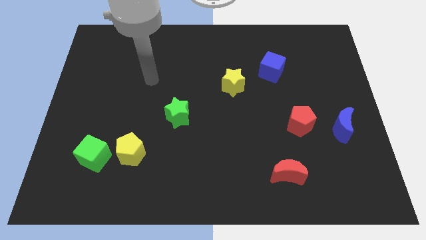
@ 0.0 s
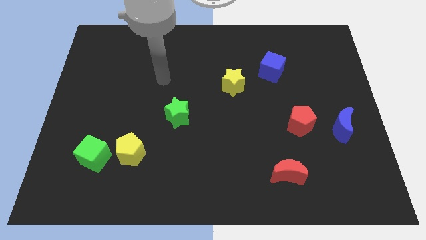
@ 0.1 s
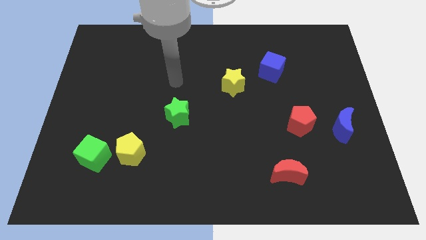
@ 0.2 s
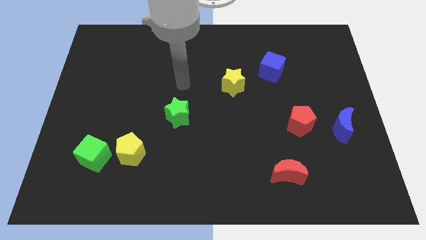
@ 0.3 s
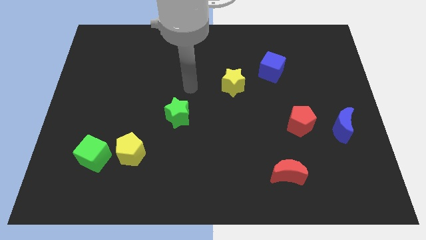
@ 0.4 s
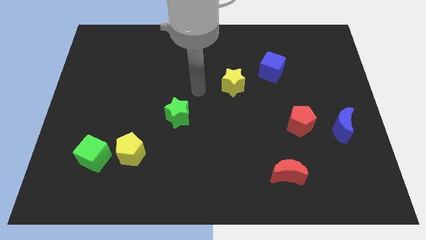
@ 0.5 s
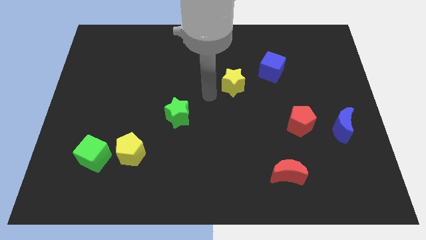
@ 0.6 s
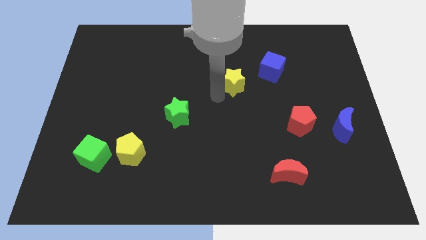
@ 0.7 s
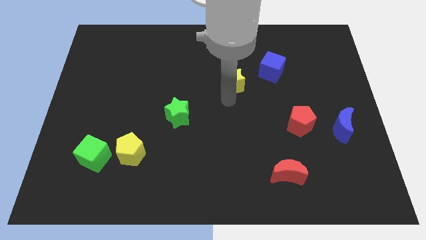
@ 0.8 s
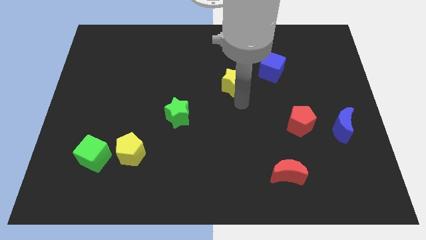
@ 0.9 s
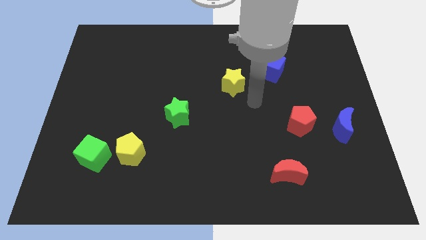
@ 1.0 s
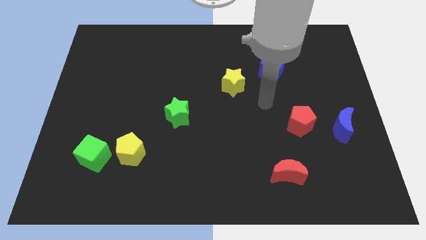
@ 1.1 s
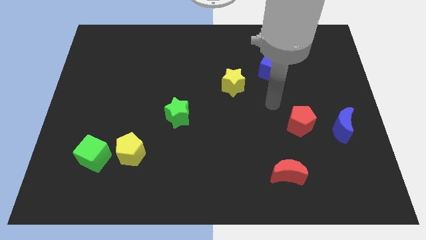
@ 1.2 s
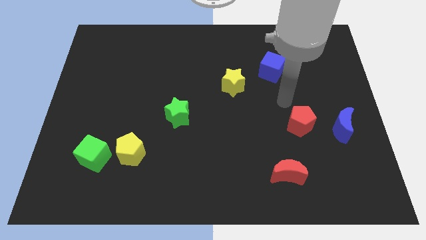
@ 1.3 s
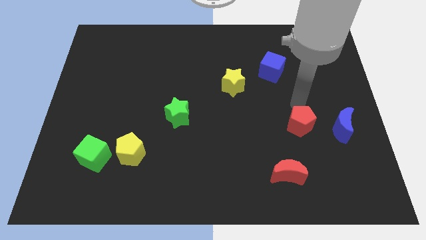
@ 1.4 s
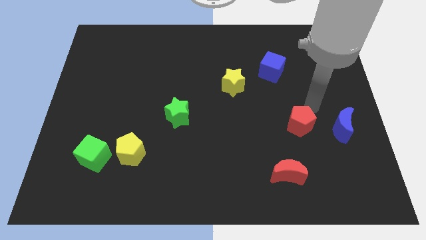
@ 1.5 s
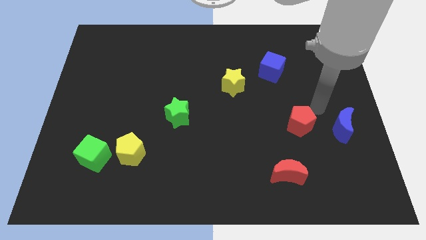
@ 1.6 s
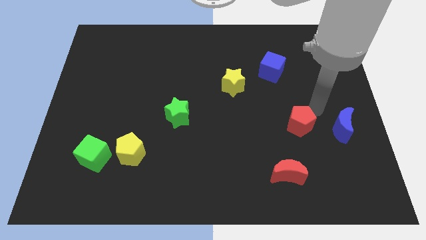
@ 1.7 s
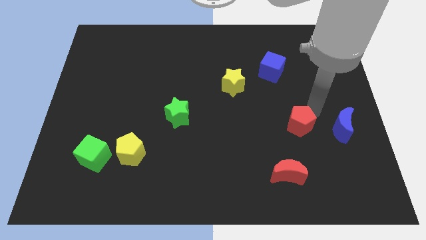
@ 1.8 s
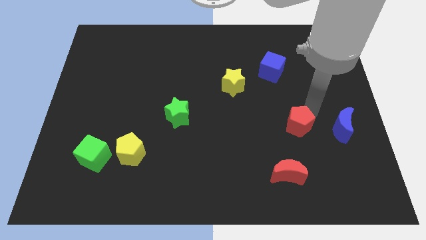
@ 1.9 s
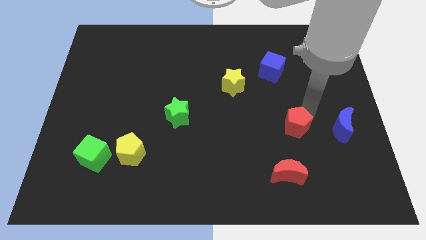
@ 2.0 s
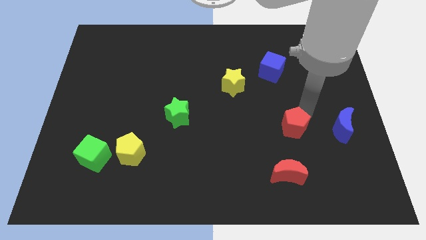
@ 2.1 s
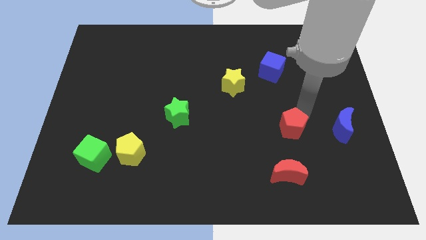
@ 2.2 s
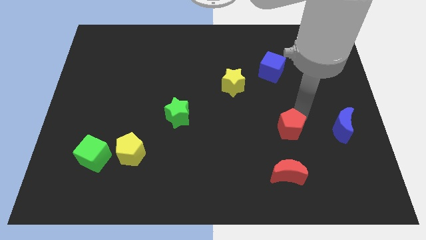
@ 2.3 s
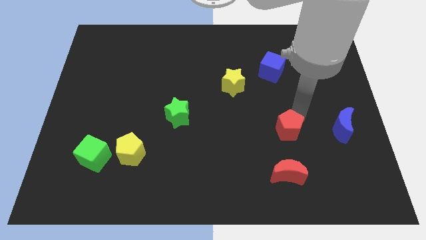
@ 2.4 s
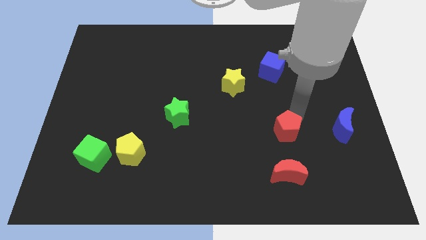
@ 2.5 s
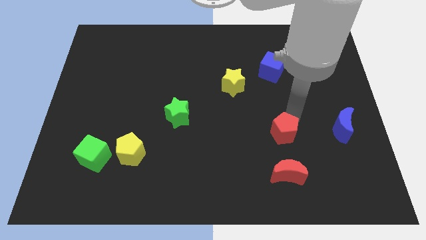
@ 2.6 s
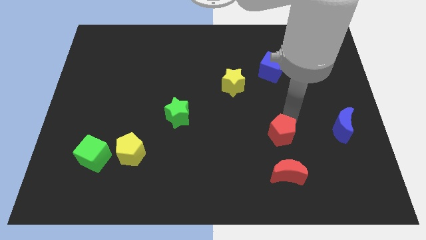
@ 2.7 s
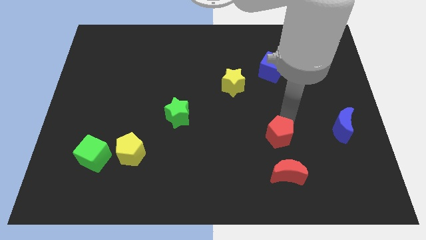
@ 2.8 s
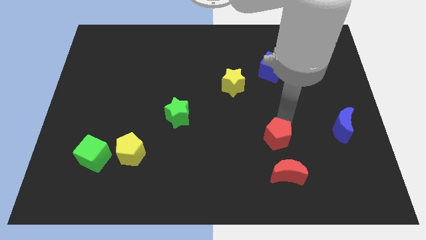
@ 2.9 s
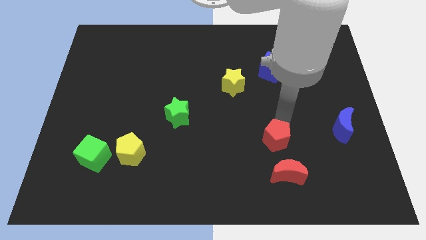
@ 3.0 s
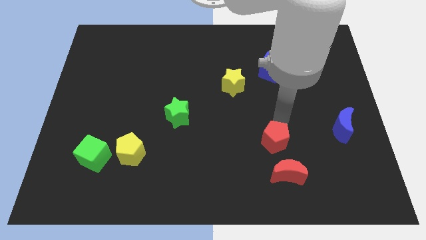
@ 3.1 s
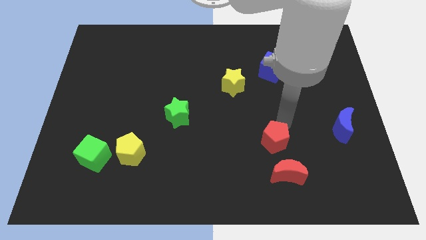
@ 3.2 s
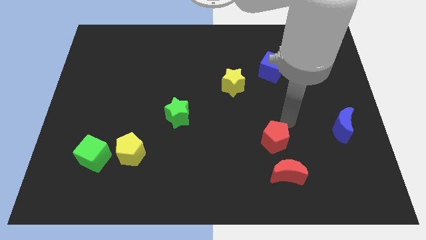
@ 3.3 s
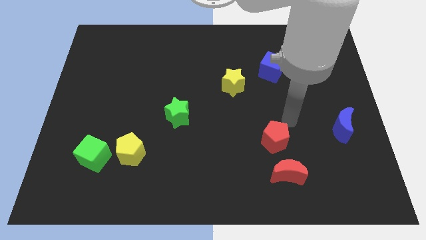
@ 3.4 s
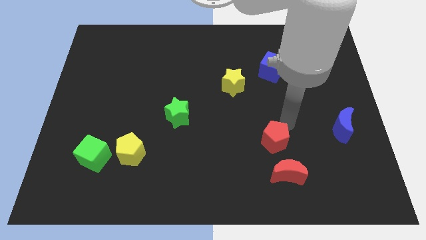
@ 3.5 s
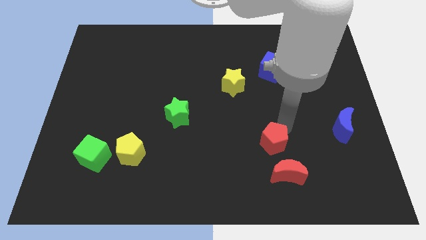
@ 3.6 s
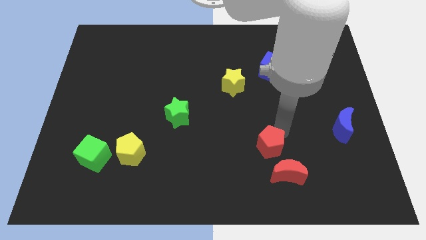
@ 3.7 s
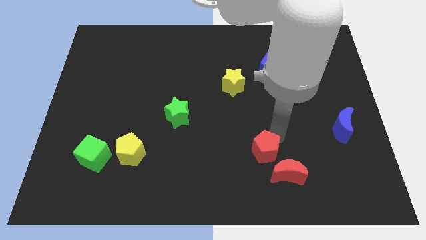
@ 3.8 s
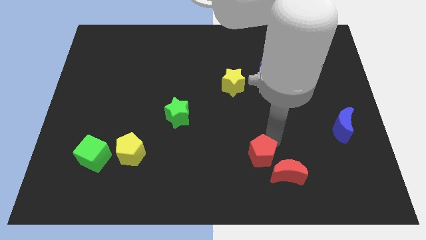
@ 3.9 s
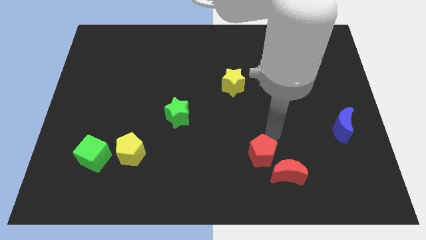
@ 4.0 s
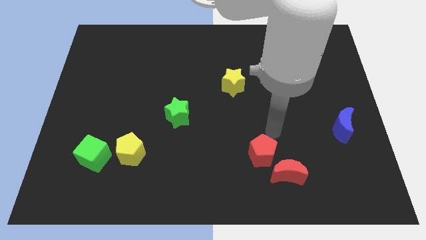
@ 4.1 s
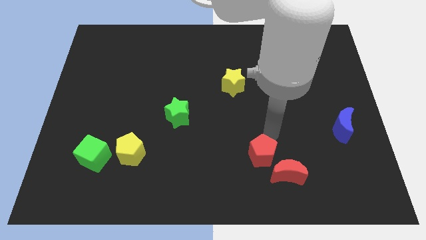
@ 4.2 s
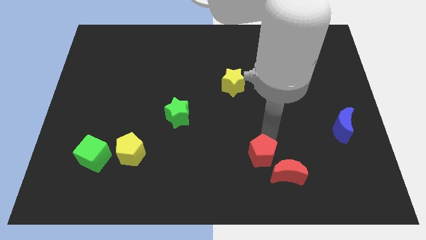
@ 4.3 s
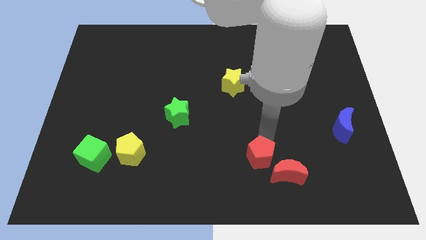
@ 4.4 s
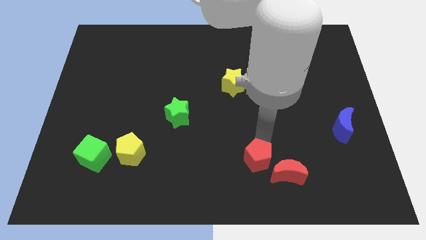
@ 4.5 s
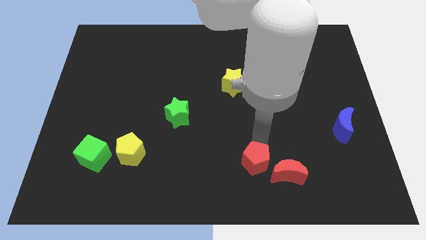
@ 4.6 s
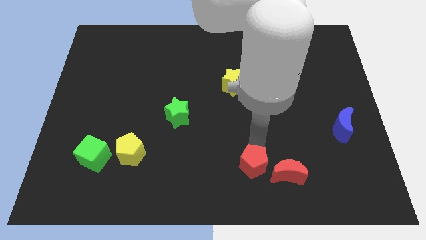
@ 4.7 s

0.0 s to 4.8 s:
push the red pentagon to the bottom

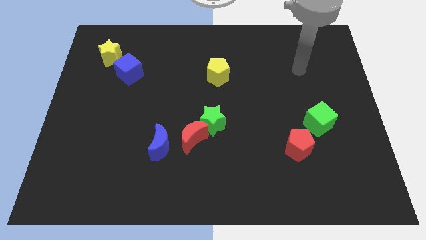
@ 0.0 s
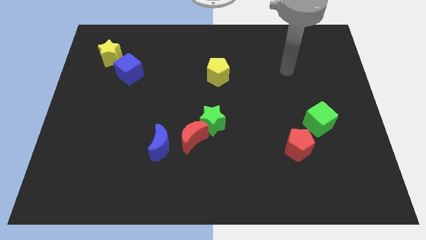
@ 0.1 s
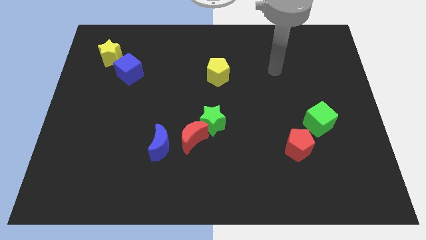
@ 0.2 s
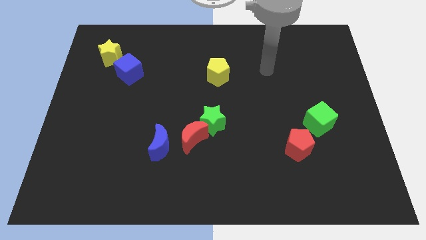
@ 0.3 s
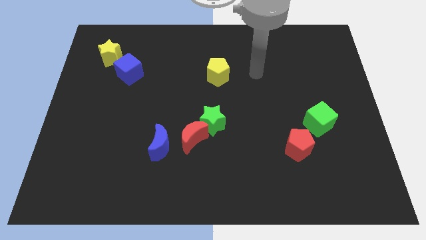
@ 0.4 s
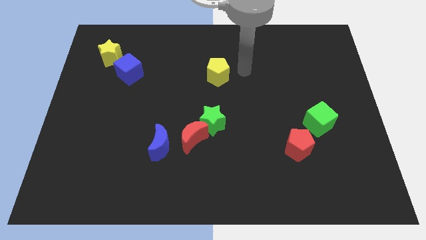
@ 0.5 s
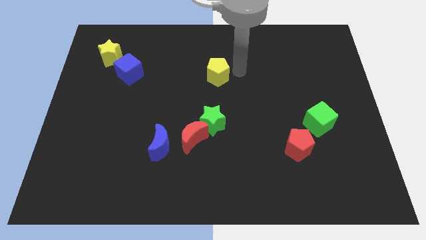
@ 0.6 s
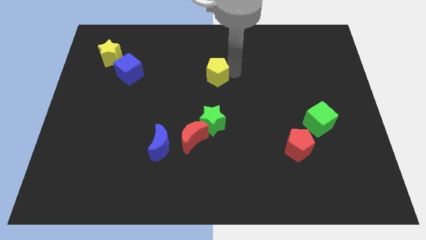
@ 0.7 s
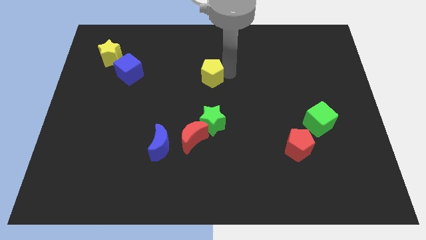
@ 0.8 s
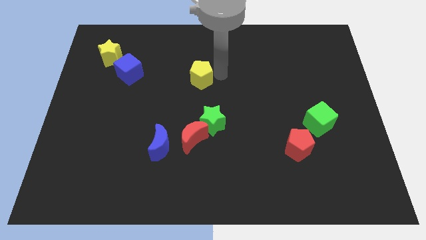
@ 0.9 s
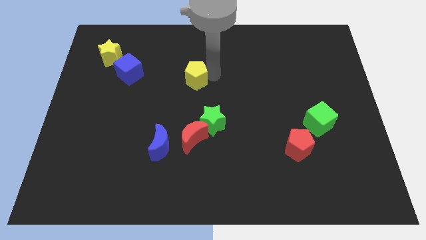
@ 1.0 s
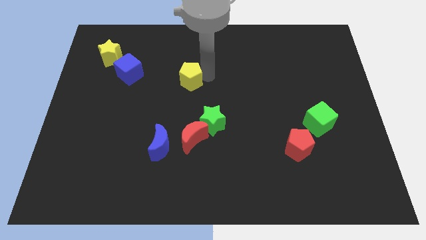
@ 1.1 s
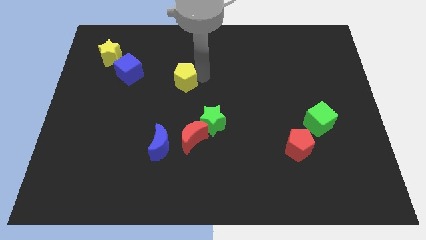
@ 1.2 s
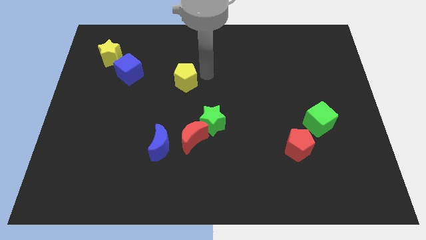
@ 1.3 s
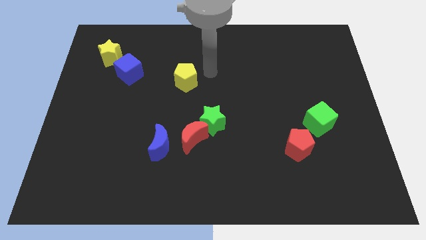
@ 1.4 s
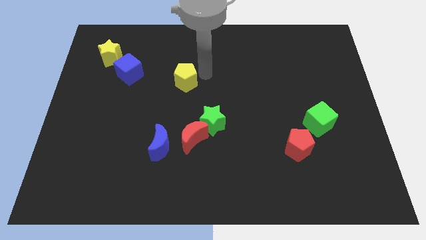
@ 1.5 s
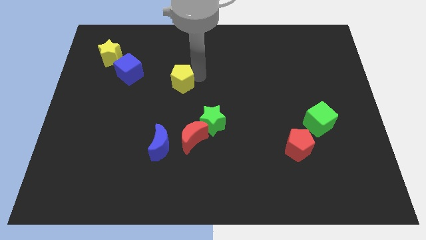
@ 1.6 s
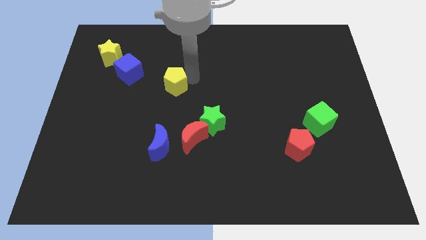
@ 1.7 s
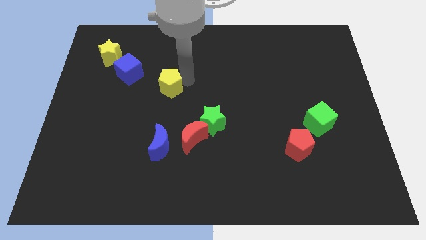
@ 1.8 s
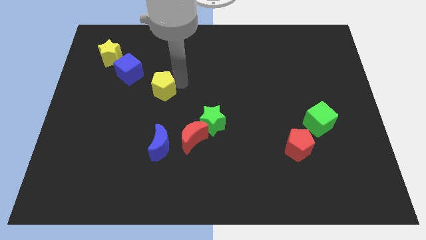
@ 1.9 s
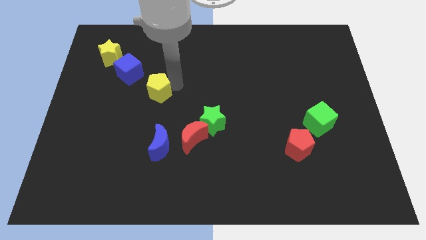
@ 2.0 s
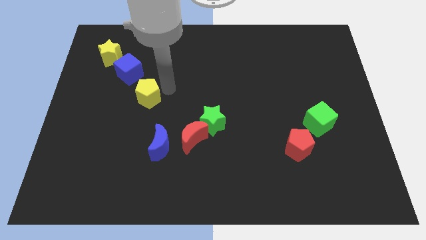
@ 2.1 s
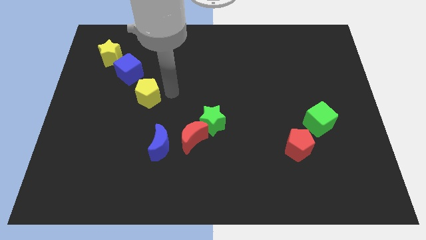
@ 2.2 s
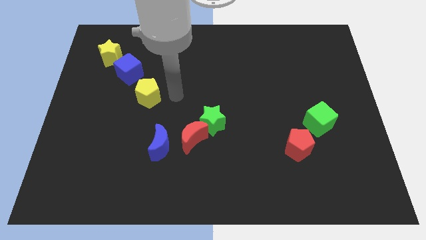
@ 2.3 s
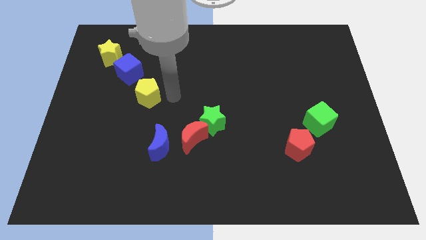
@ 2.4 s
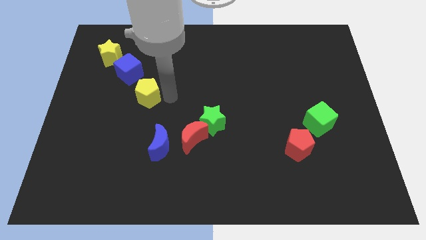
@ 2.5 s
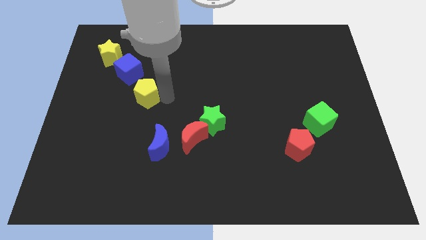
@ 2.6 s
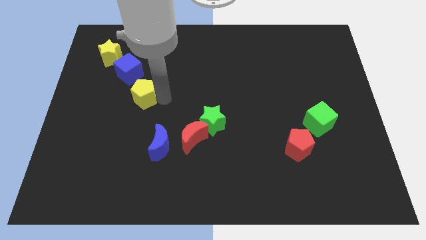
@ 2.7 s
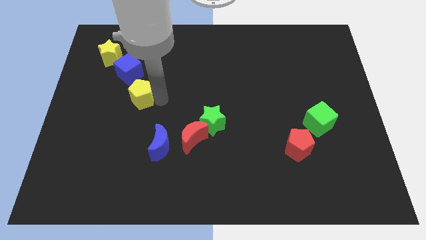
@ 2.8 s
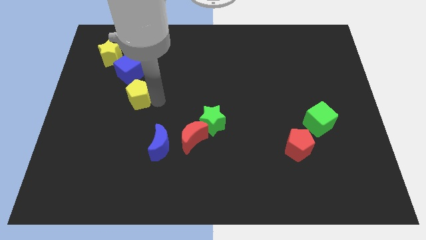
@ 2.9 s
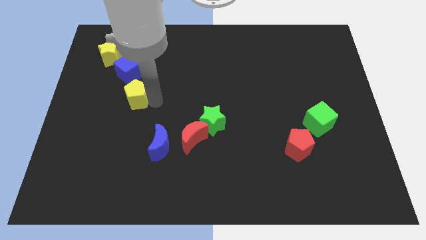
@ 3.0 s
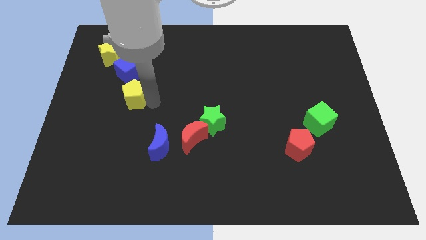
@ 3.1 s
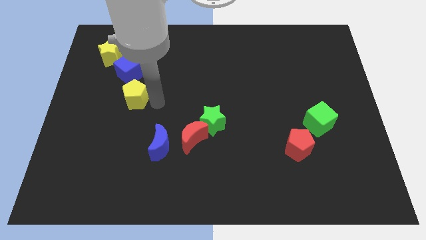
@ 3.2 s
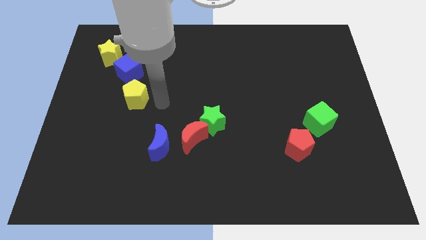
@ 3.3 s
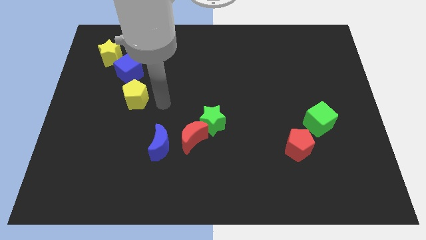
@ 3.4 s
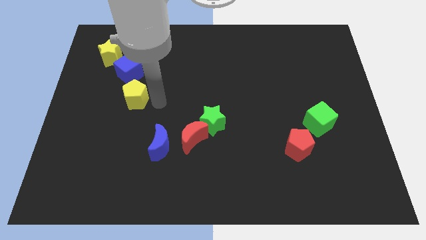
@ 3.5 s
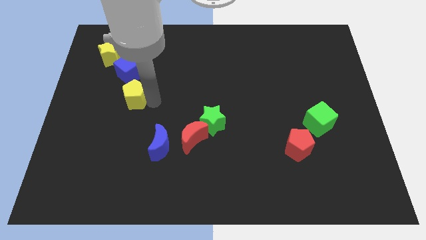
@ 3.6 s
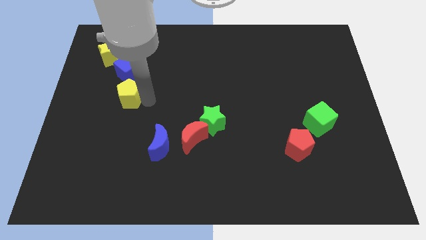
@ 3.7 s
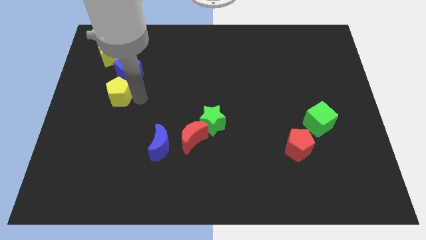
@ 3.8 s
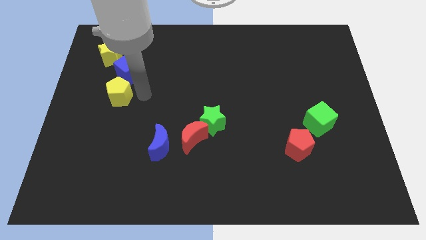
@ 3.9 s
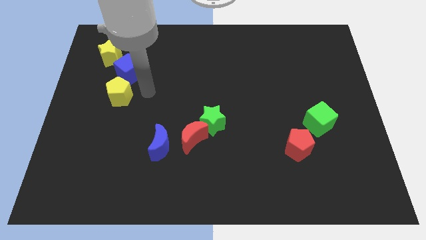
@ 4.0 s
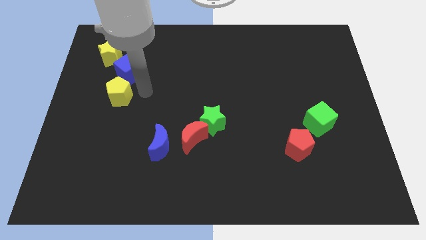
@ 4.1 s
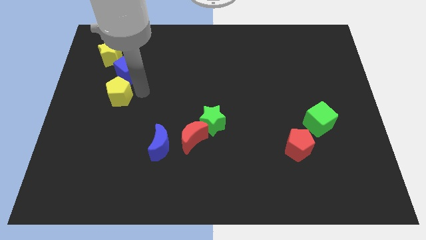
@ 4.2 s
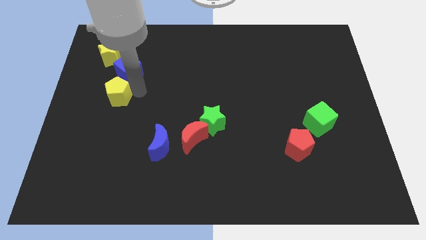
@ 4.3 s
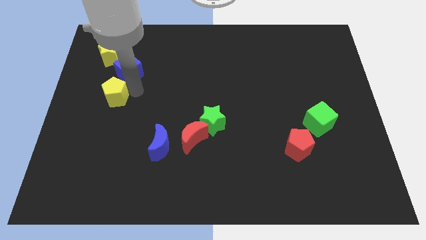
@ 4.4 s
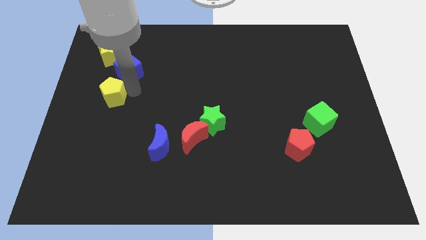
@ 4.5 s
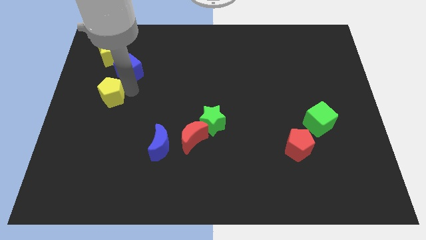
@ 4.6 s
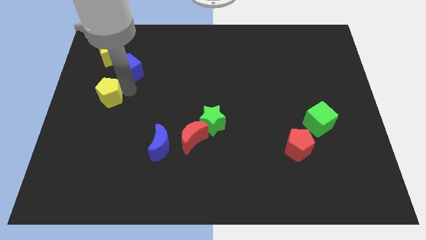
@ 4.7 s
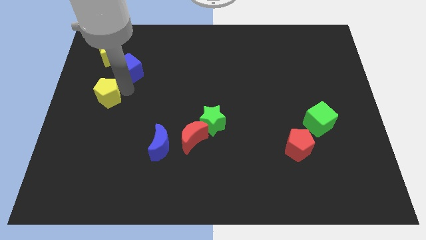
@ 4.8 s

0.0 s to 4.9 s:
put the yellow pentagon to the left side of the board
